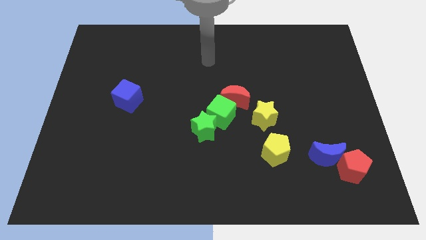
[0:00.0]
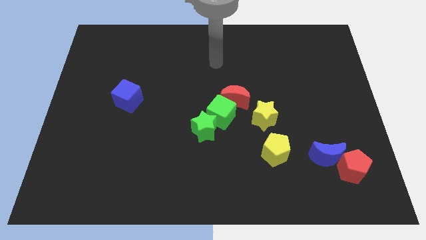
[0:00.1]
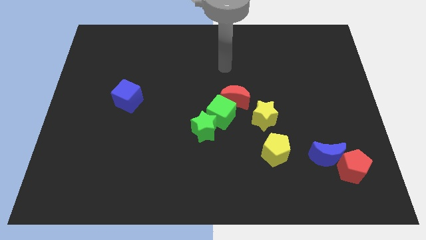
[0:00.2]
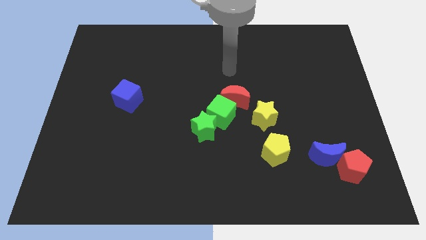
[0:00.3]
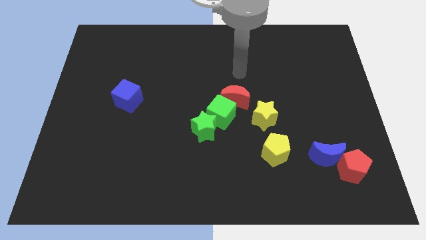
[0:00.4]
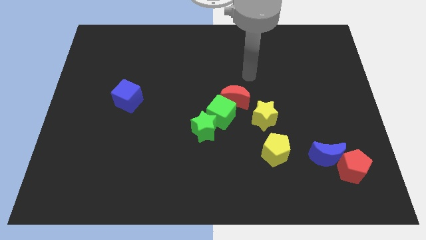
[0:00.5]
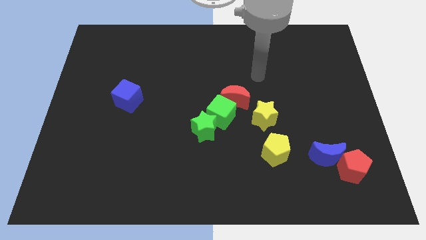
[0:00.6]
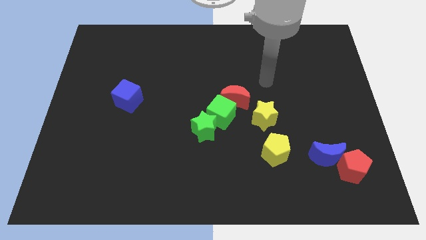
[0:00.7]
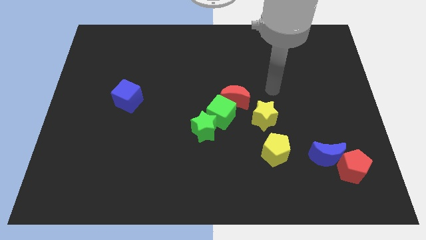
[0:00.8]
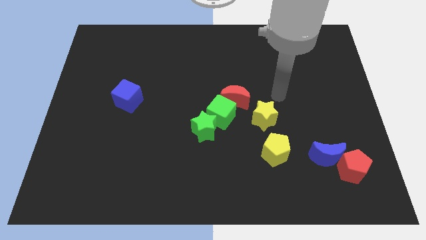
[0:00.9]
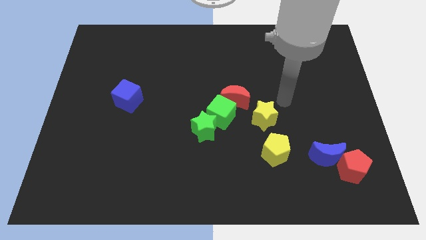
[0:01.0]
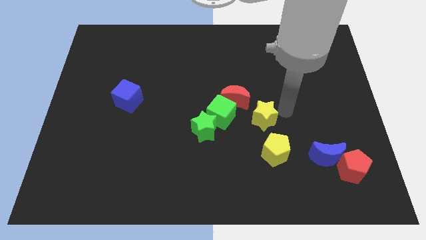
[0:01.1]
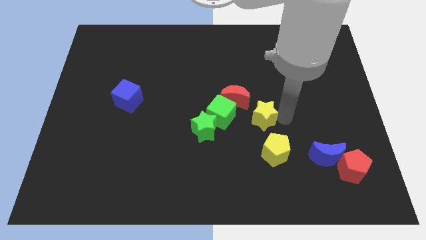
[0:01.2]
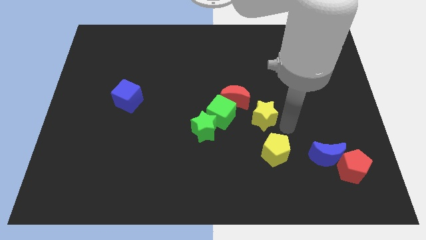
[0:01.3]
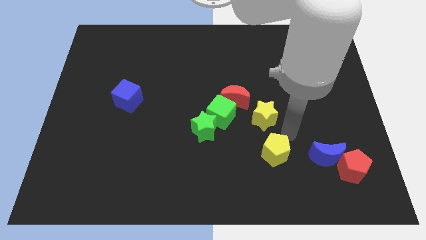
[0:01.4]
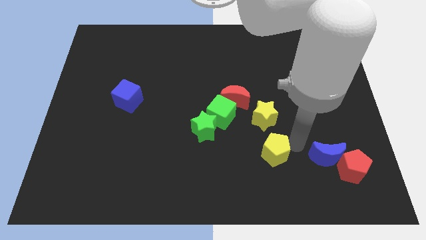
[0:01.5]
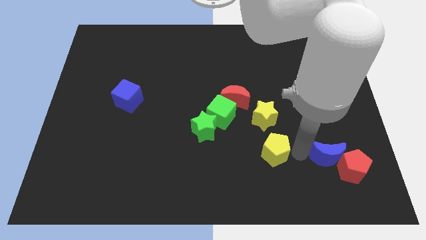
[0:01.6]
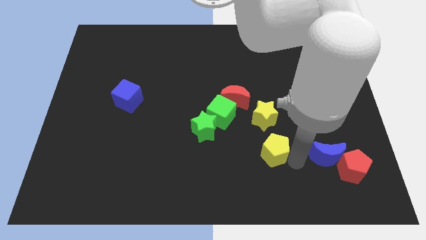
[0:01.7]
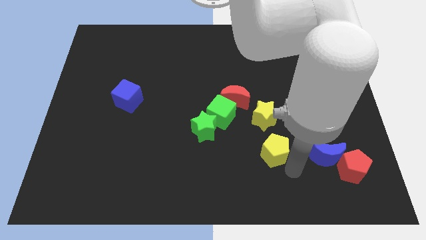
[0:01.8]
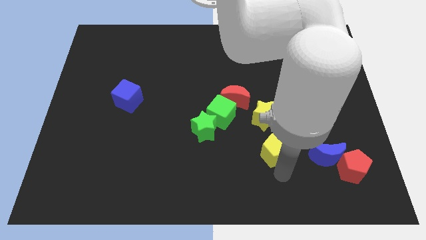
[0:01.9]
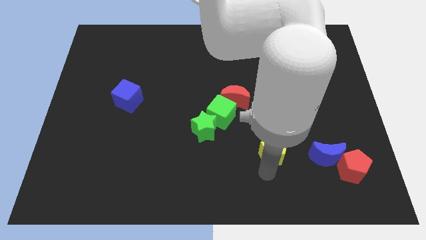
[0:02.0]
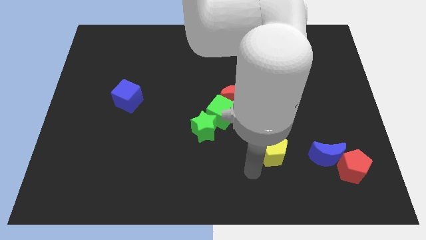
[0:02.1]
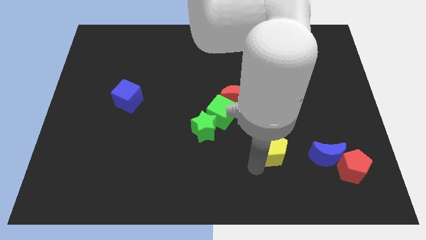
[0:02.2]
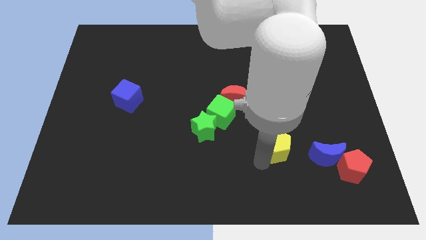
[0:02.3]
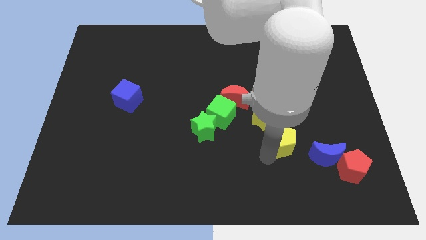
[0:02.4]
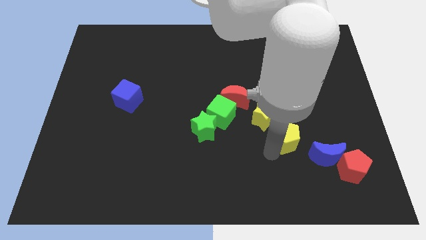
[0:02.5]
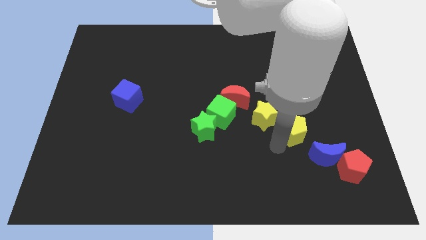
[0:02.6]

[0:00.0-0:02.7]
slightly slide the yellow pentagon diagonally up and to the right

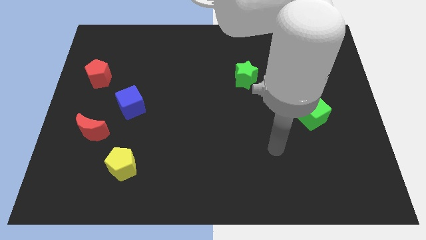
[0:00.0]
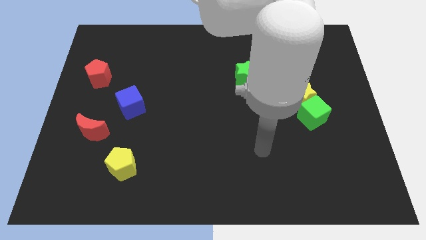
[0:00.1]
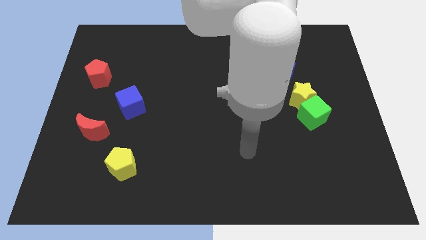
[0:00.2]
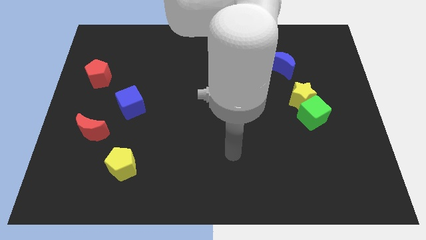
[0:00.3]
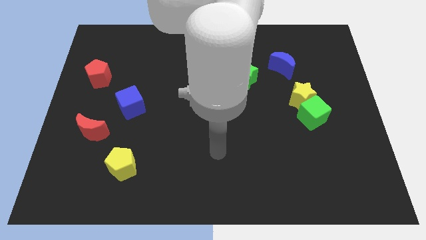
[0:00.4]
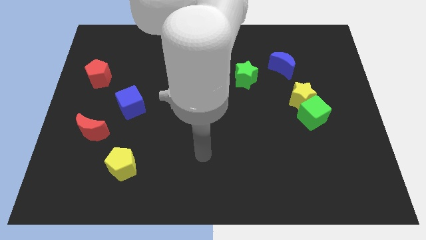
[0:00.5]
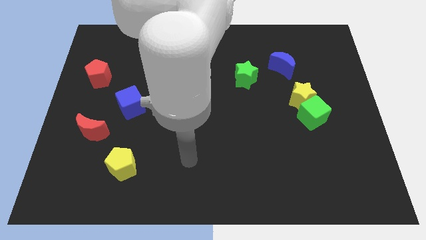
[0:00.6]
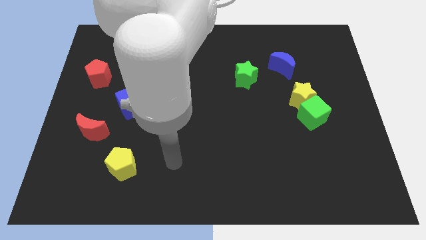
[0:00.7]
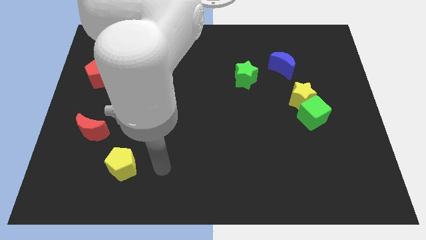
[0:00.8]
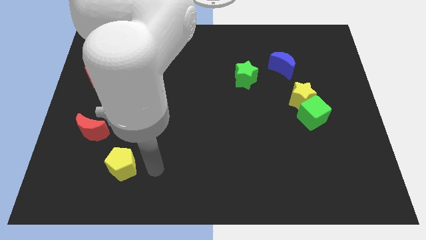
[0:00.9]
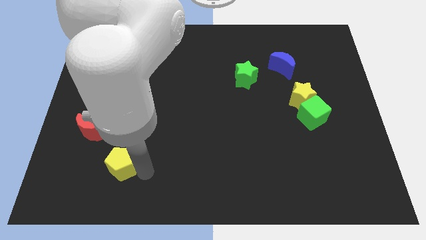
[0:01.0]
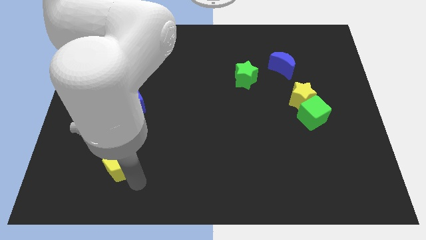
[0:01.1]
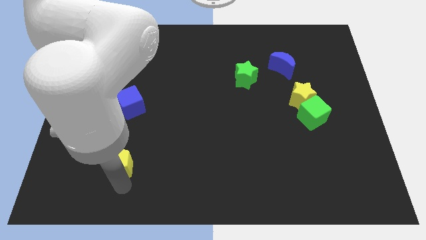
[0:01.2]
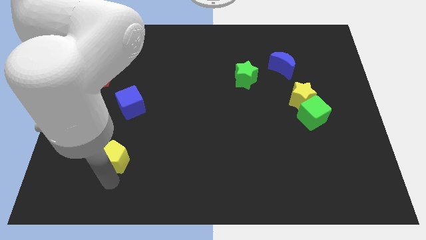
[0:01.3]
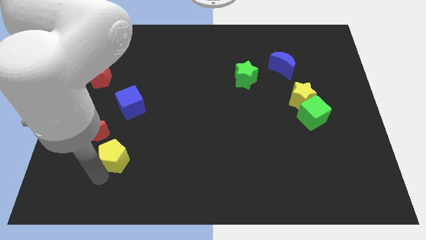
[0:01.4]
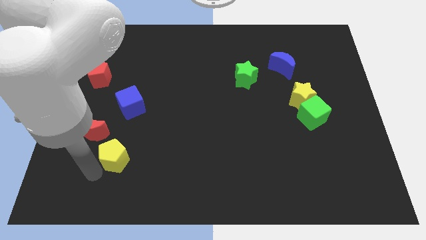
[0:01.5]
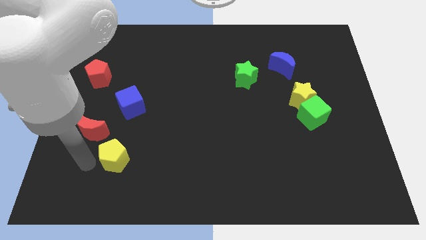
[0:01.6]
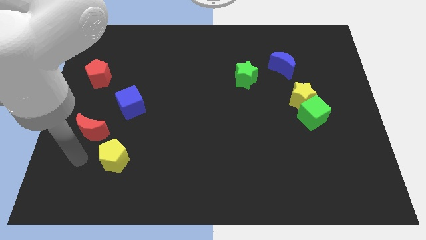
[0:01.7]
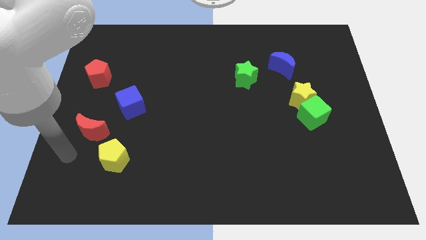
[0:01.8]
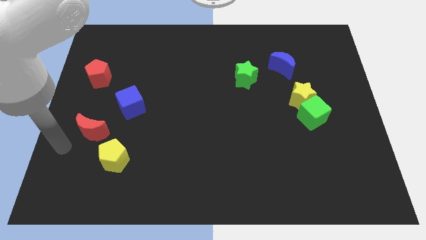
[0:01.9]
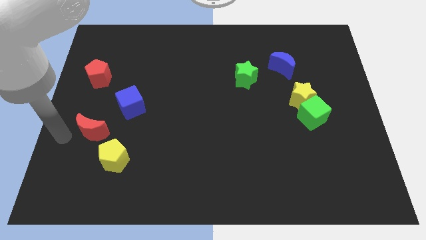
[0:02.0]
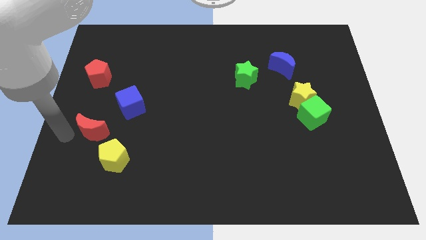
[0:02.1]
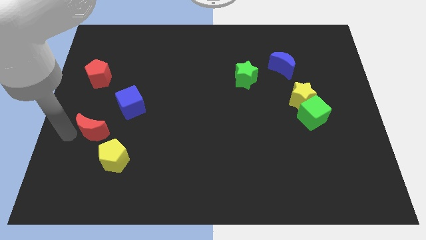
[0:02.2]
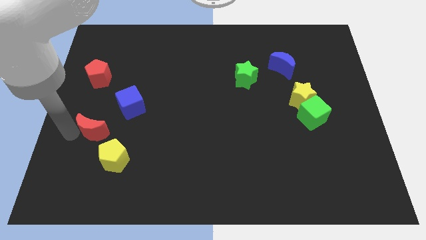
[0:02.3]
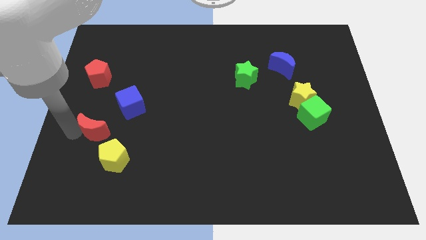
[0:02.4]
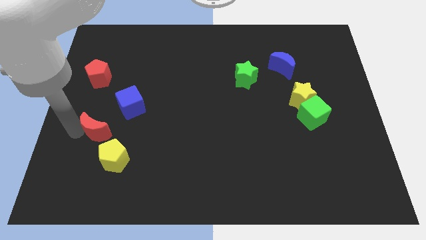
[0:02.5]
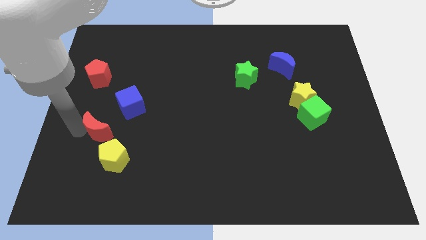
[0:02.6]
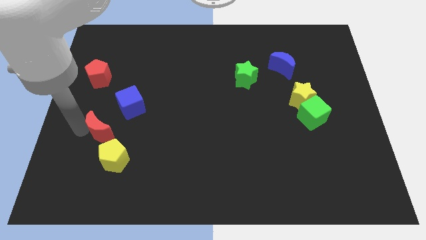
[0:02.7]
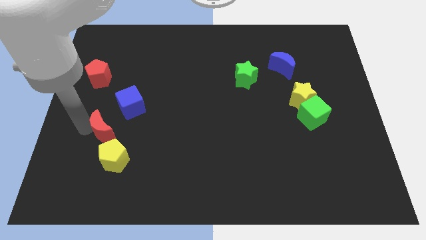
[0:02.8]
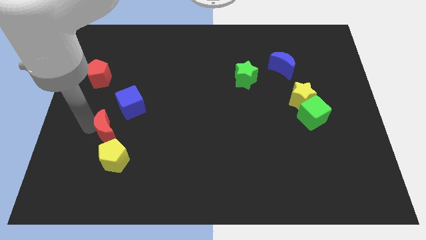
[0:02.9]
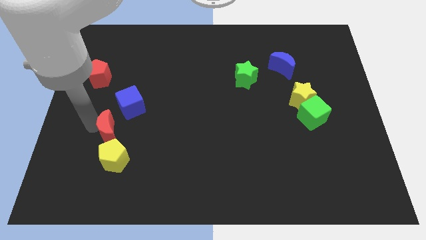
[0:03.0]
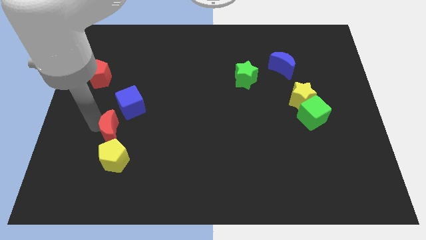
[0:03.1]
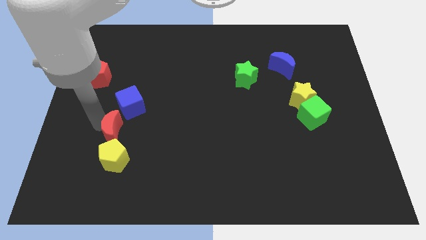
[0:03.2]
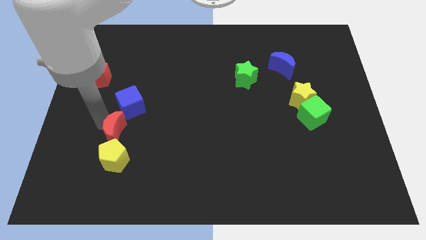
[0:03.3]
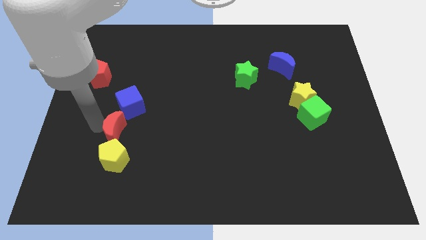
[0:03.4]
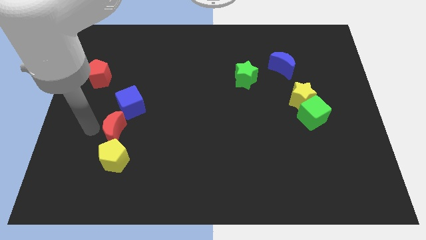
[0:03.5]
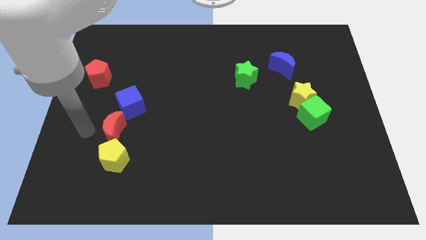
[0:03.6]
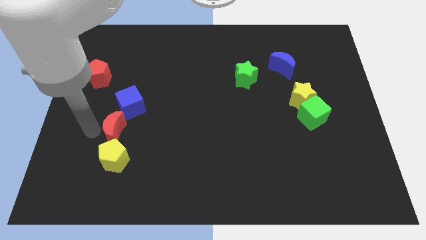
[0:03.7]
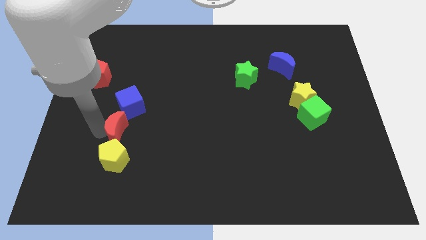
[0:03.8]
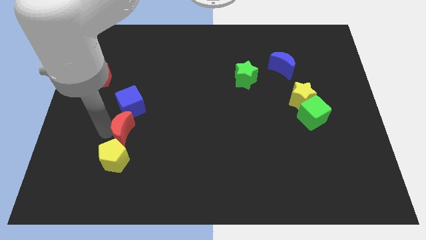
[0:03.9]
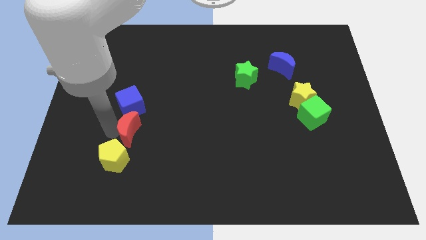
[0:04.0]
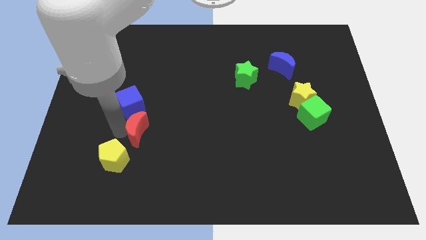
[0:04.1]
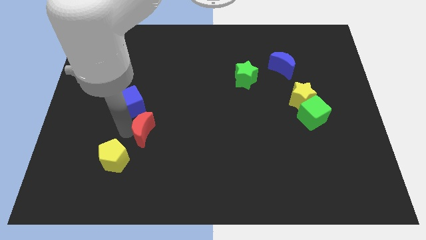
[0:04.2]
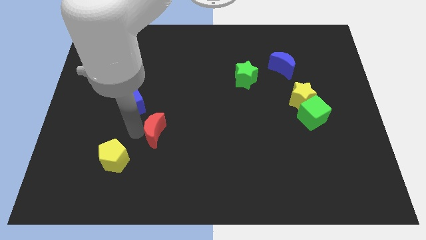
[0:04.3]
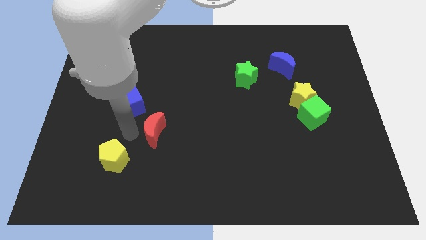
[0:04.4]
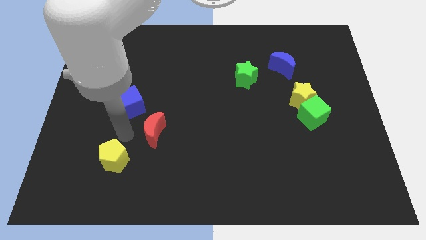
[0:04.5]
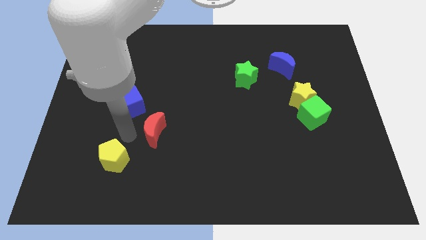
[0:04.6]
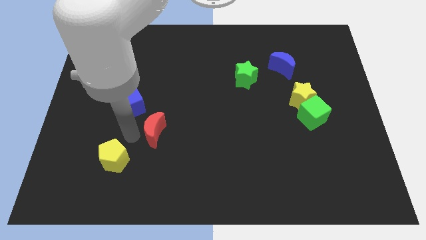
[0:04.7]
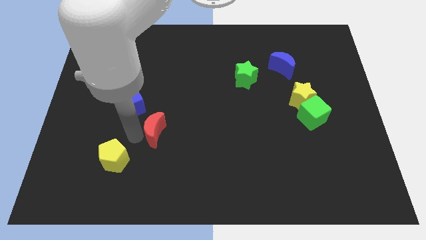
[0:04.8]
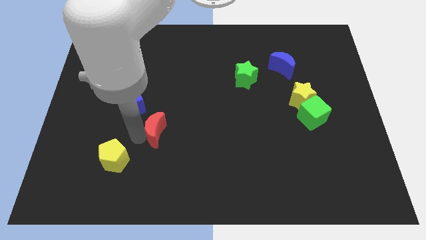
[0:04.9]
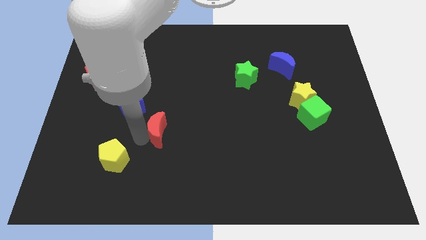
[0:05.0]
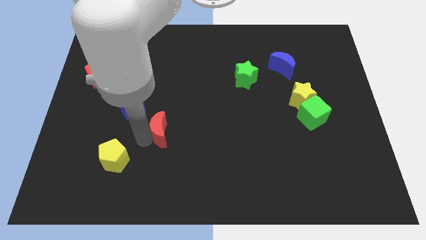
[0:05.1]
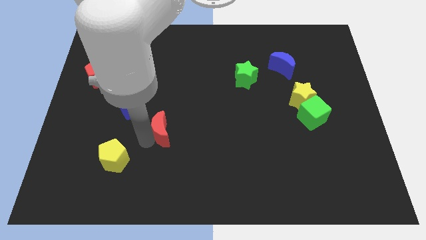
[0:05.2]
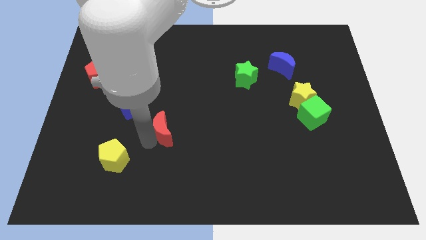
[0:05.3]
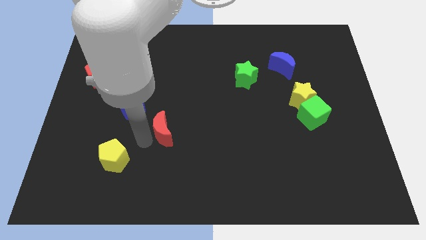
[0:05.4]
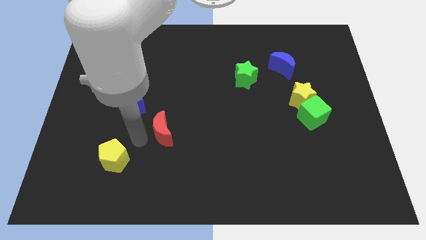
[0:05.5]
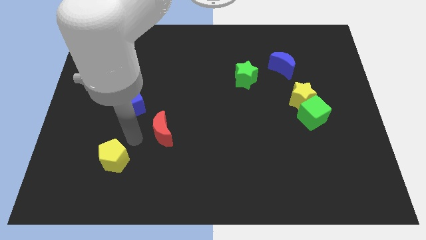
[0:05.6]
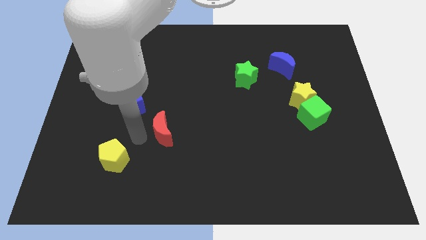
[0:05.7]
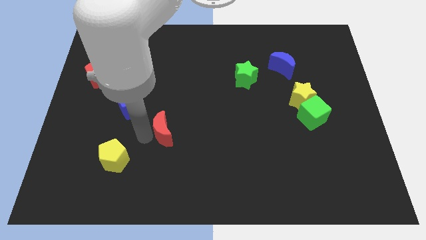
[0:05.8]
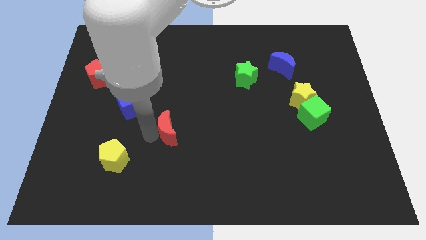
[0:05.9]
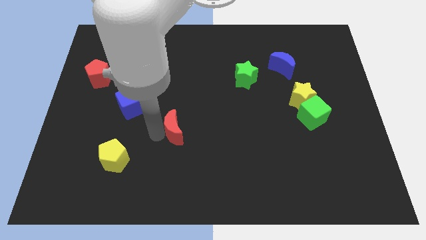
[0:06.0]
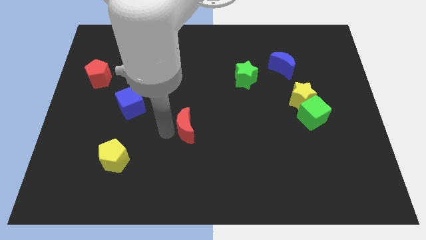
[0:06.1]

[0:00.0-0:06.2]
slide the red moon to the right
